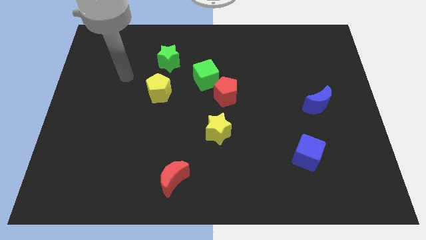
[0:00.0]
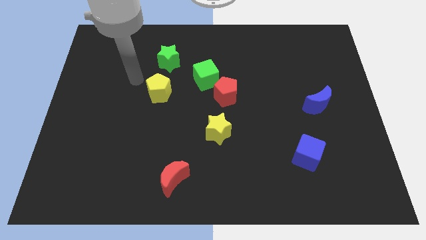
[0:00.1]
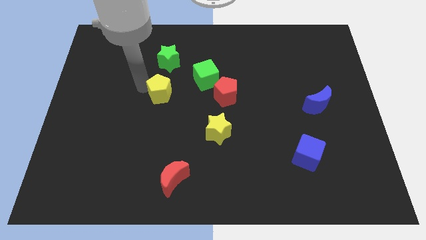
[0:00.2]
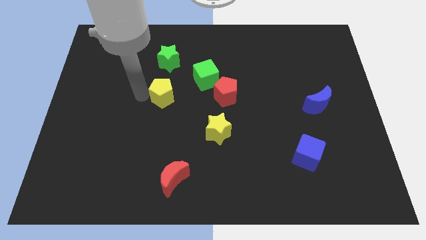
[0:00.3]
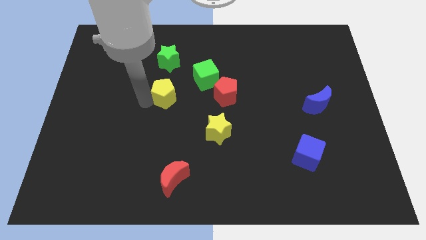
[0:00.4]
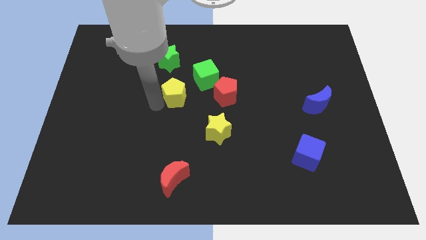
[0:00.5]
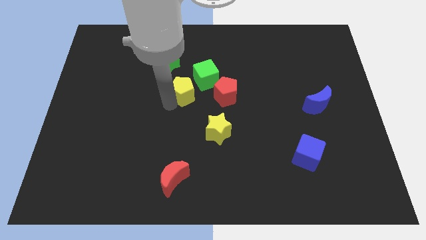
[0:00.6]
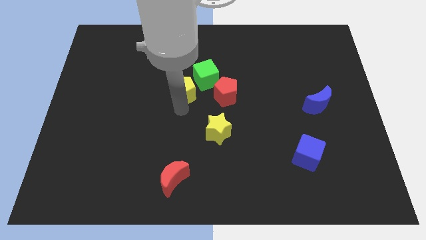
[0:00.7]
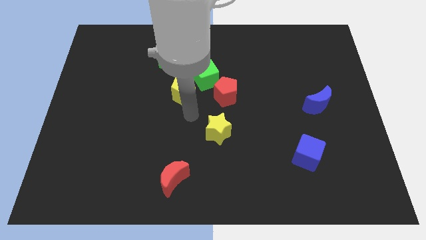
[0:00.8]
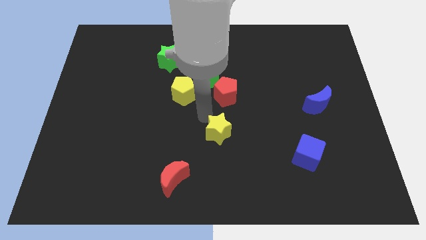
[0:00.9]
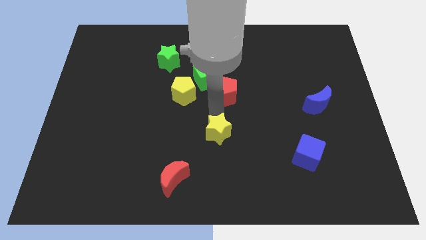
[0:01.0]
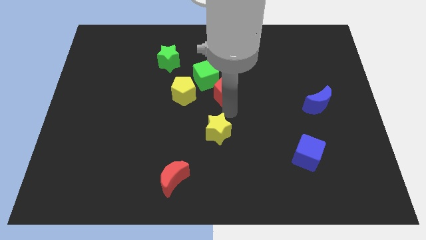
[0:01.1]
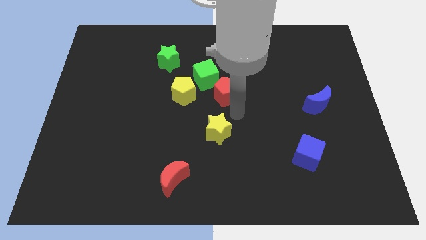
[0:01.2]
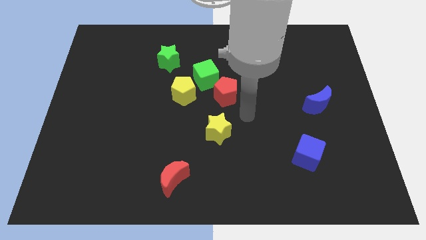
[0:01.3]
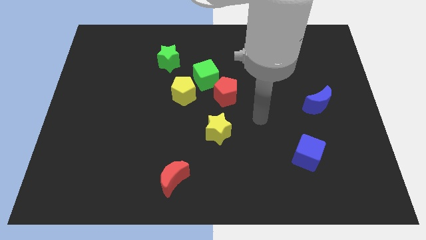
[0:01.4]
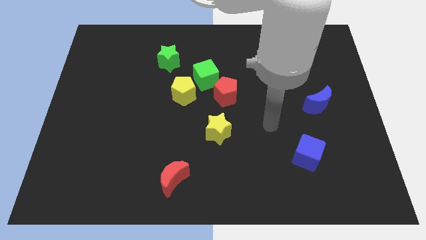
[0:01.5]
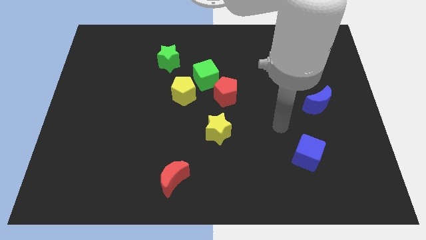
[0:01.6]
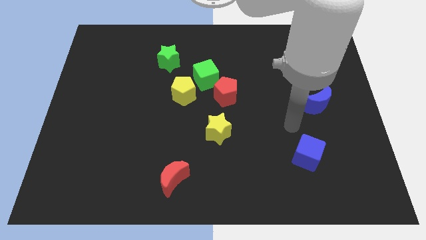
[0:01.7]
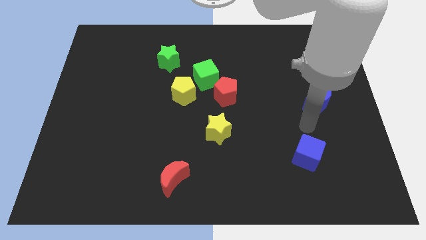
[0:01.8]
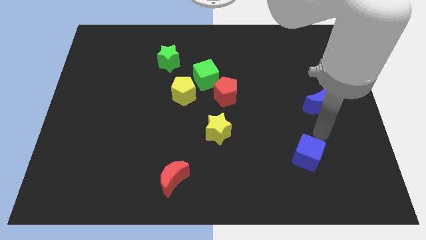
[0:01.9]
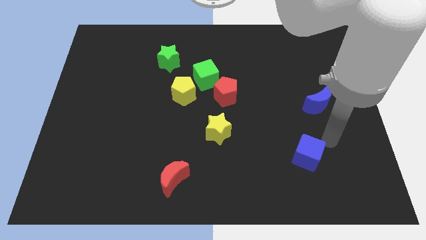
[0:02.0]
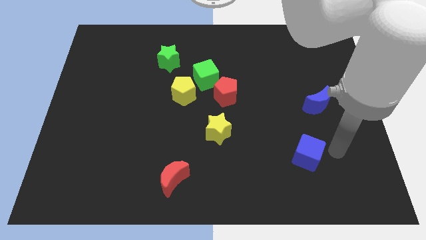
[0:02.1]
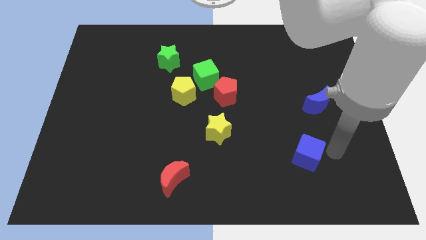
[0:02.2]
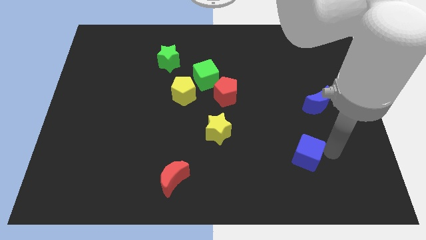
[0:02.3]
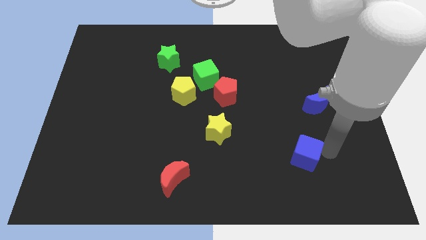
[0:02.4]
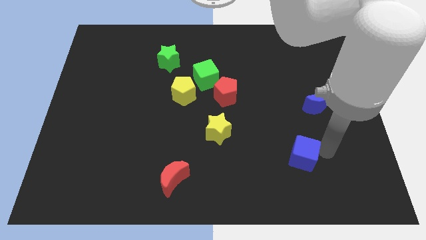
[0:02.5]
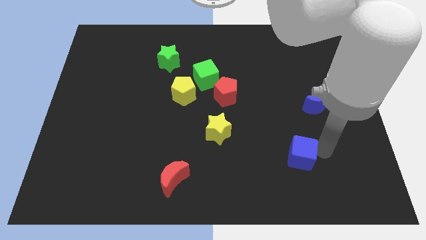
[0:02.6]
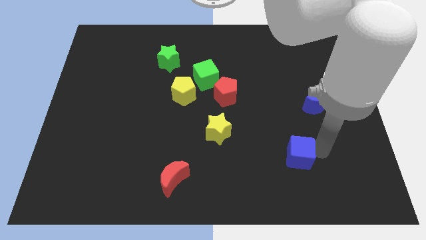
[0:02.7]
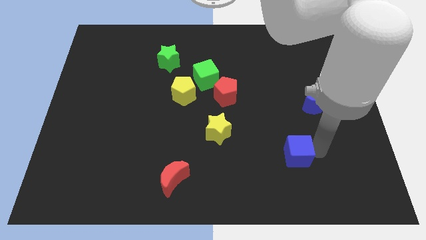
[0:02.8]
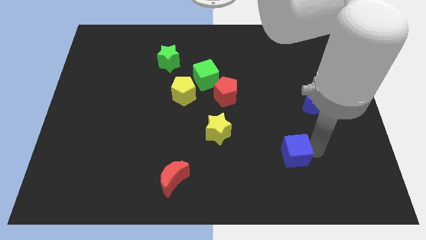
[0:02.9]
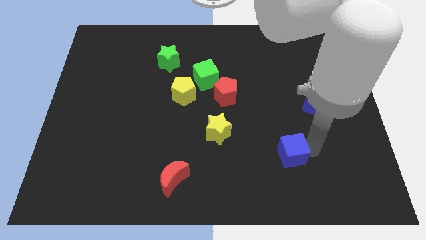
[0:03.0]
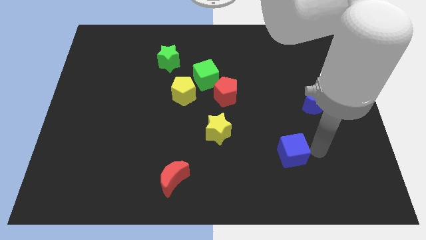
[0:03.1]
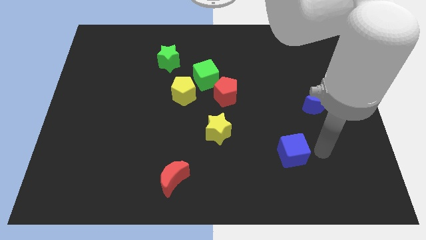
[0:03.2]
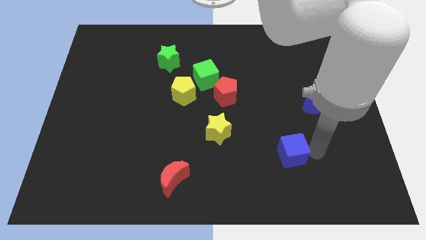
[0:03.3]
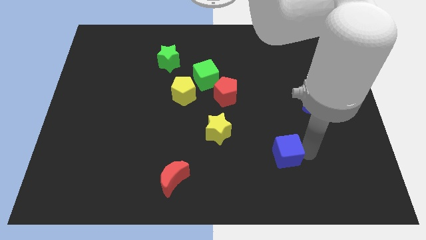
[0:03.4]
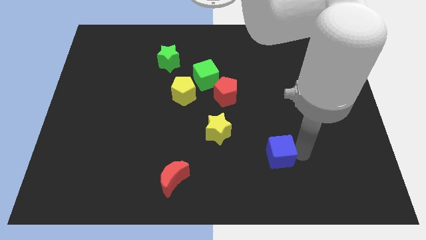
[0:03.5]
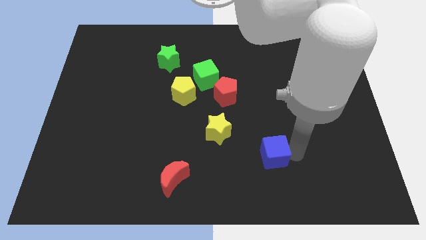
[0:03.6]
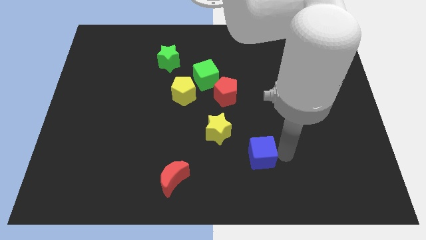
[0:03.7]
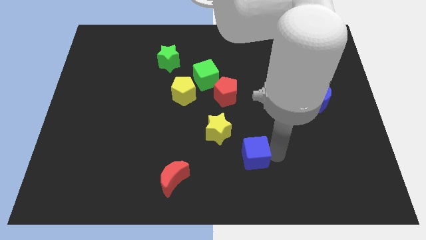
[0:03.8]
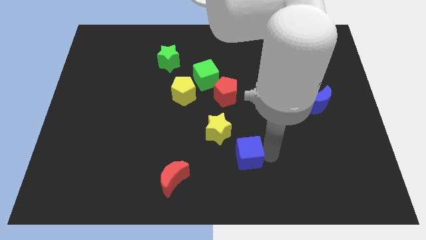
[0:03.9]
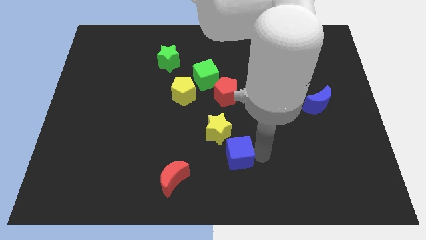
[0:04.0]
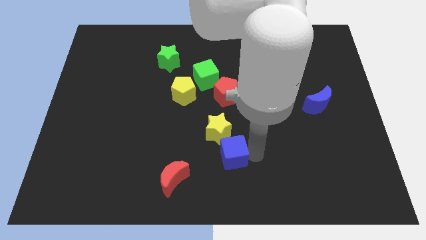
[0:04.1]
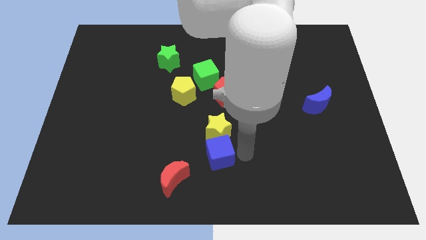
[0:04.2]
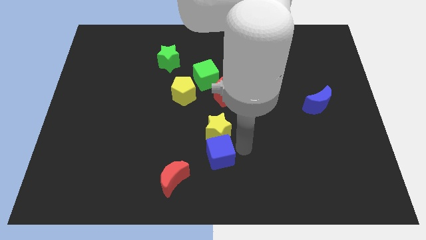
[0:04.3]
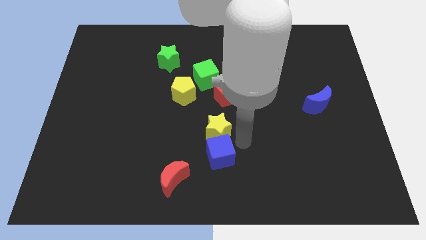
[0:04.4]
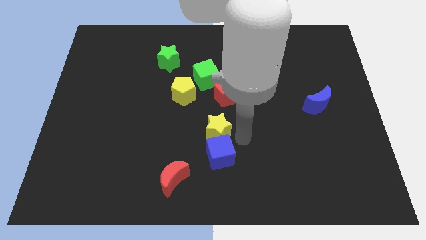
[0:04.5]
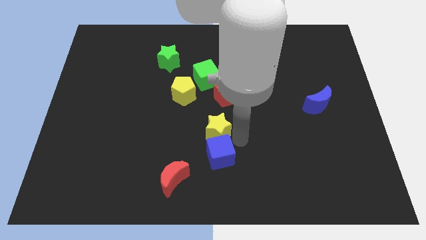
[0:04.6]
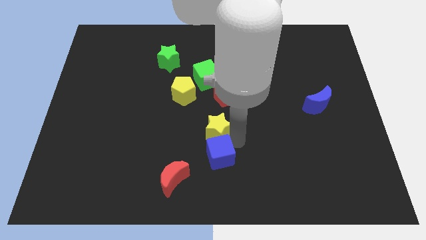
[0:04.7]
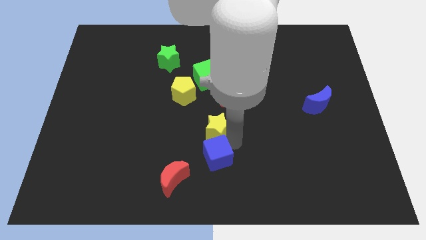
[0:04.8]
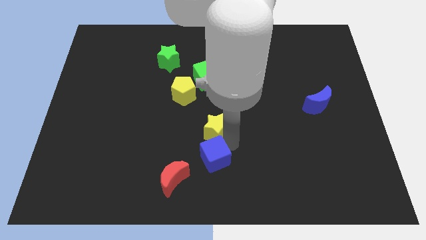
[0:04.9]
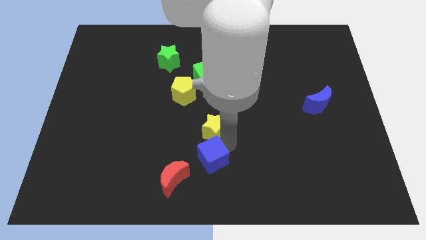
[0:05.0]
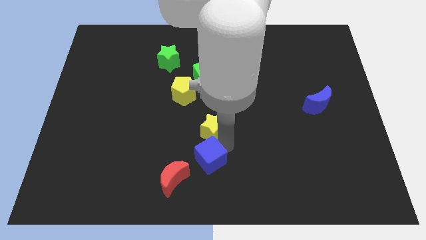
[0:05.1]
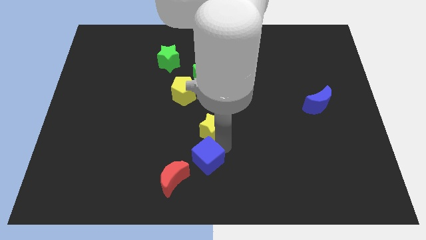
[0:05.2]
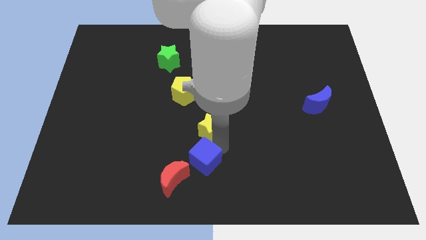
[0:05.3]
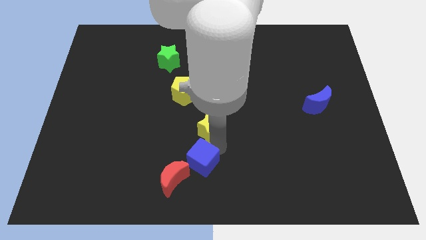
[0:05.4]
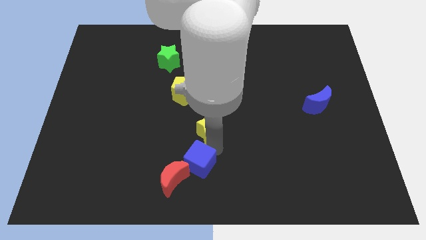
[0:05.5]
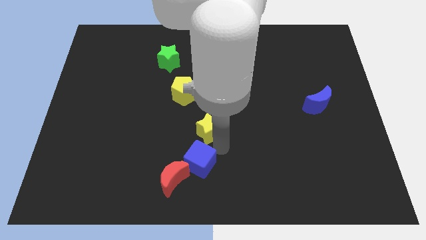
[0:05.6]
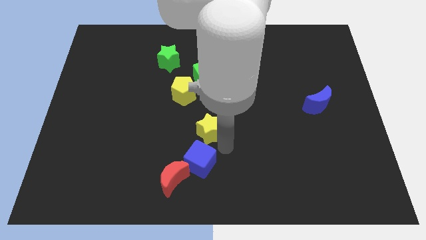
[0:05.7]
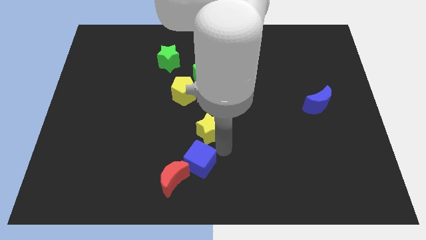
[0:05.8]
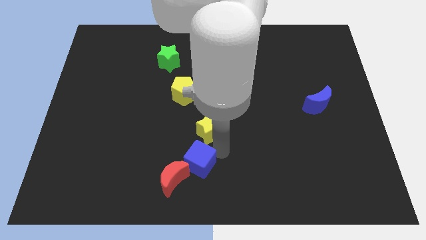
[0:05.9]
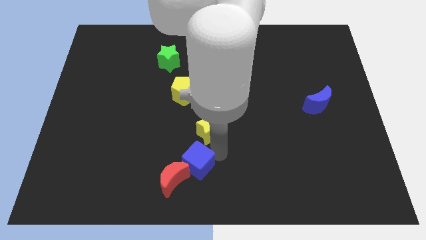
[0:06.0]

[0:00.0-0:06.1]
slide the blue cube next to the red moon

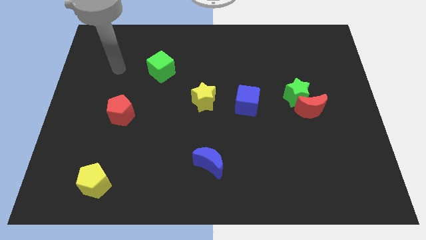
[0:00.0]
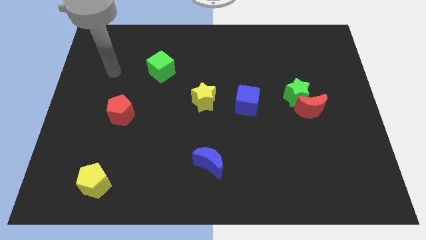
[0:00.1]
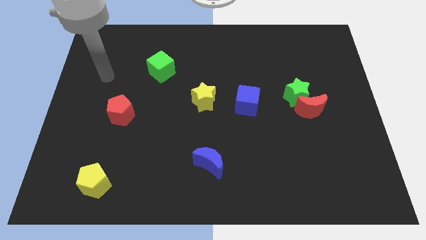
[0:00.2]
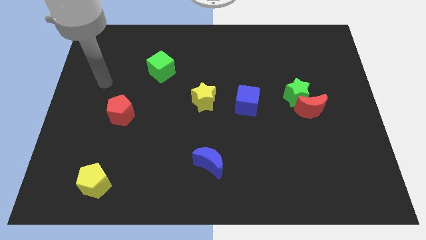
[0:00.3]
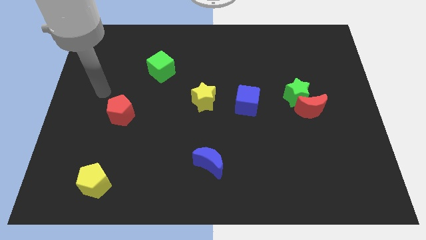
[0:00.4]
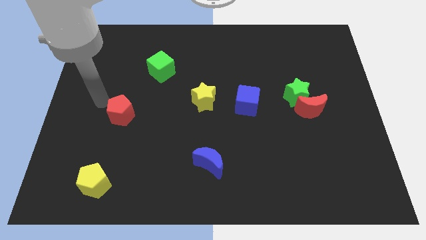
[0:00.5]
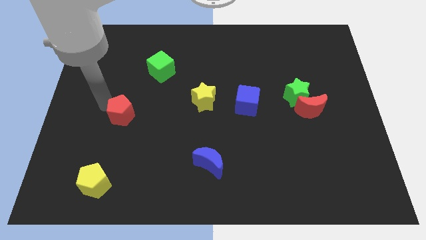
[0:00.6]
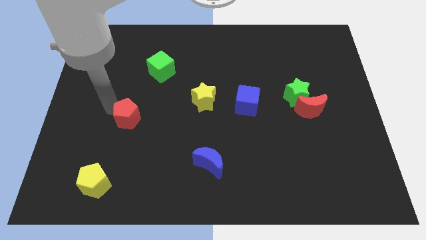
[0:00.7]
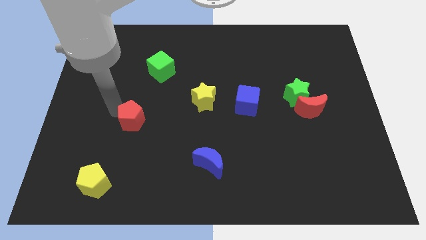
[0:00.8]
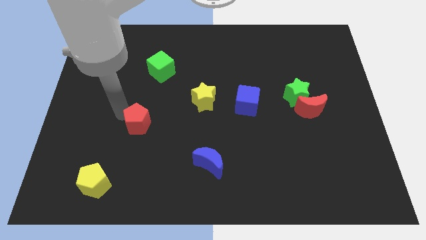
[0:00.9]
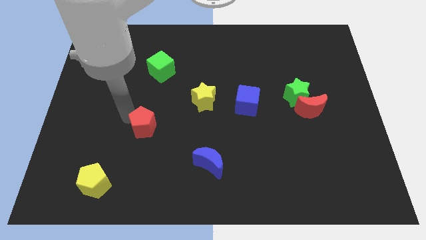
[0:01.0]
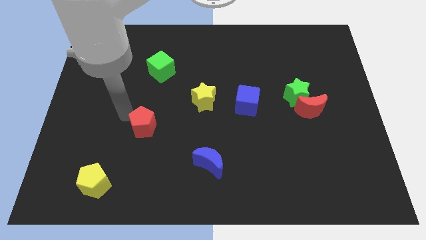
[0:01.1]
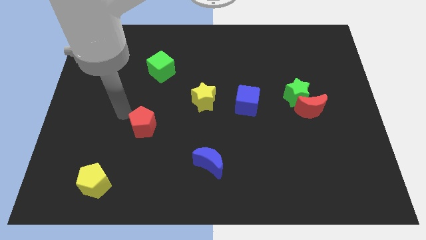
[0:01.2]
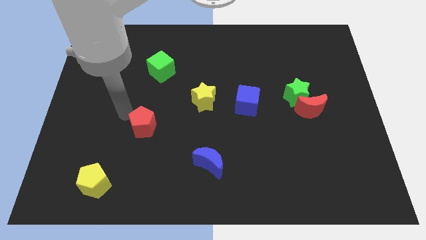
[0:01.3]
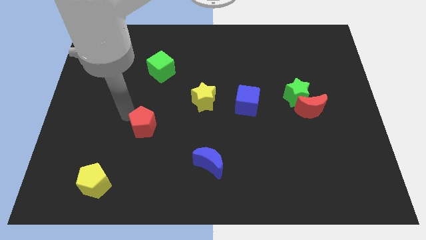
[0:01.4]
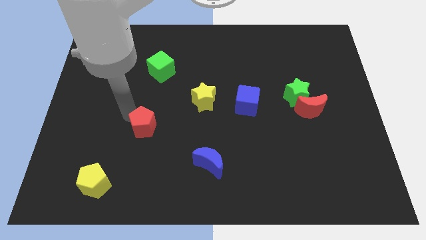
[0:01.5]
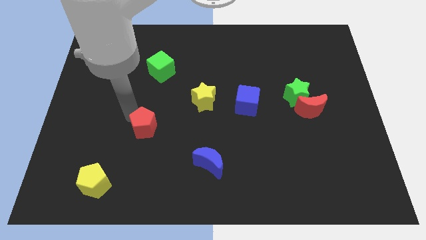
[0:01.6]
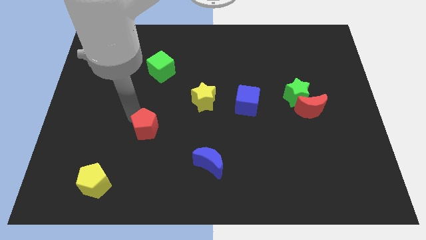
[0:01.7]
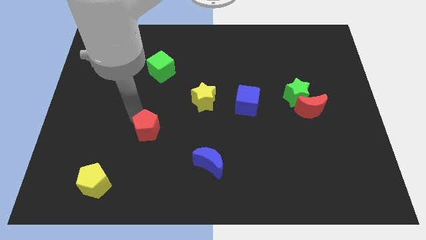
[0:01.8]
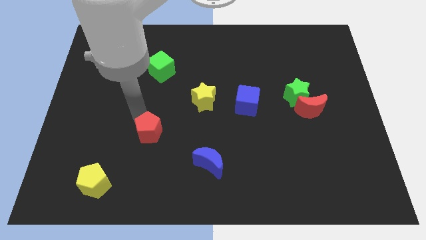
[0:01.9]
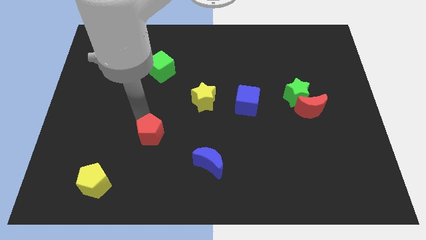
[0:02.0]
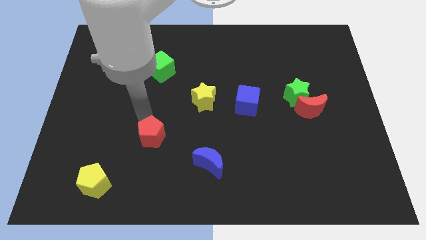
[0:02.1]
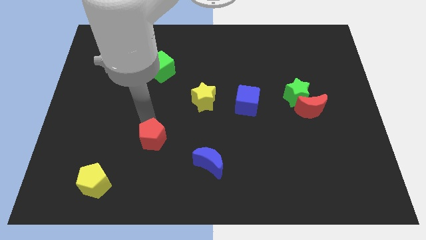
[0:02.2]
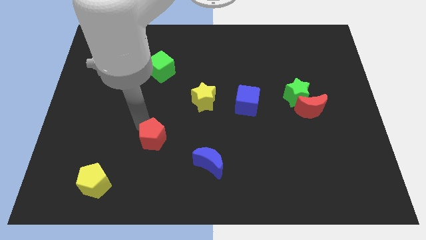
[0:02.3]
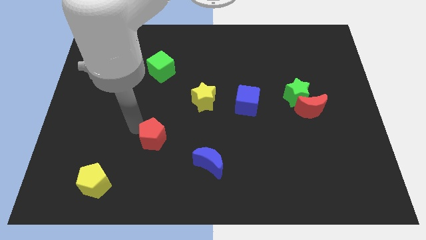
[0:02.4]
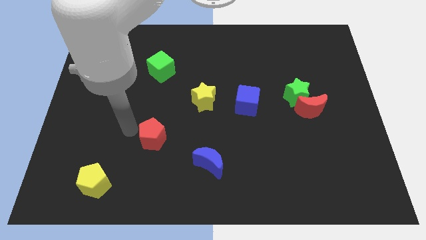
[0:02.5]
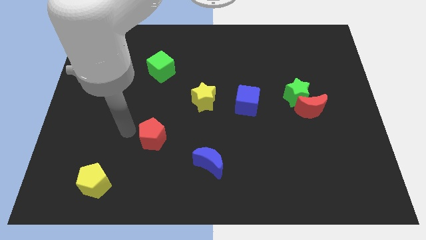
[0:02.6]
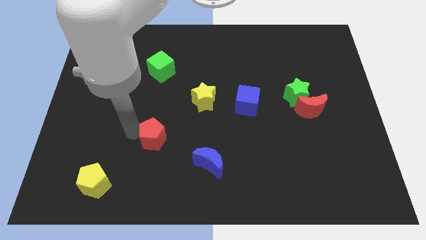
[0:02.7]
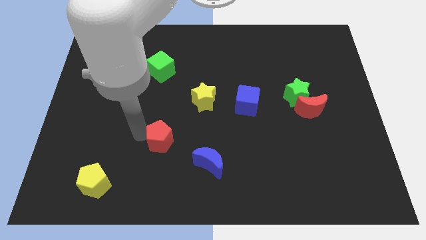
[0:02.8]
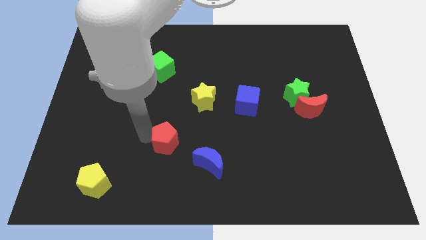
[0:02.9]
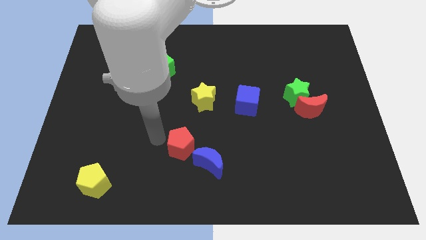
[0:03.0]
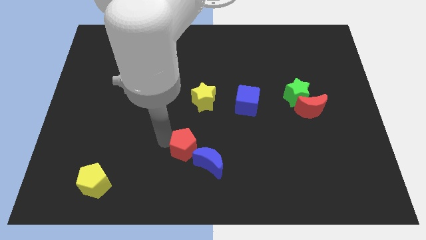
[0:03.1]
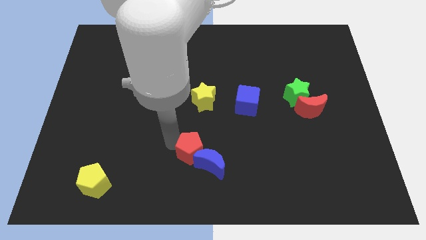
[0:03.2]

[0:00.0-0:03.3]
slide the red pentagon to the blue moon
